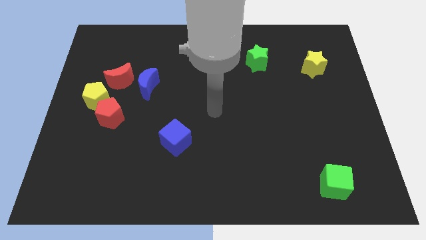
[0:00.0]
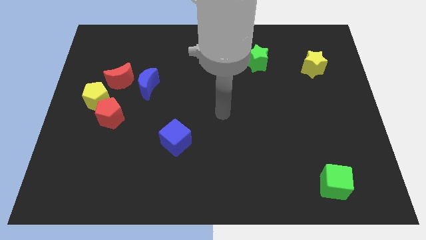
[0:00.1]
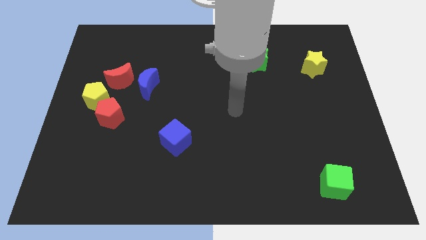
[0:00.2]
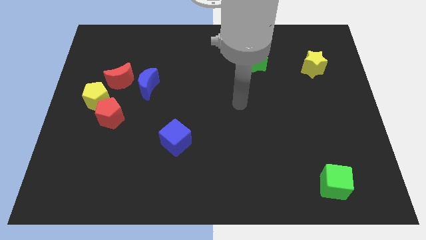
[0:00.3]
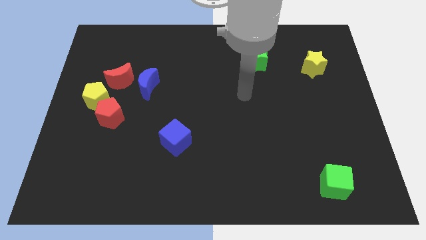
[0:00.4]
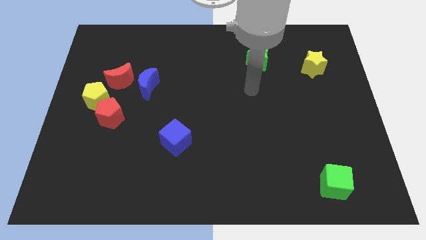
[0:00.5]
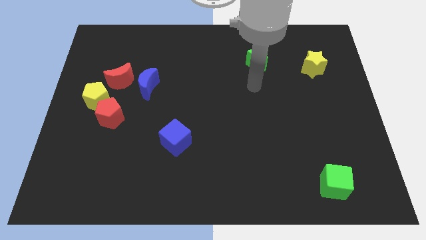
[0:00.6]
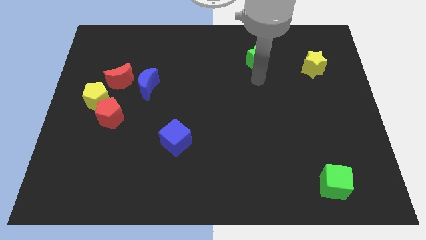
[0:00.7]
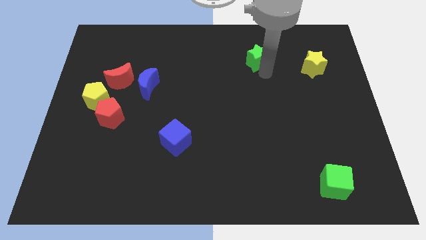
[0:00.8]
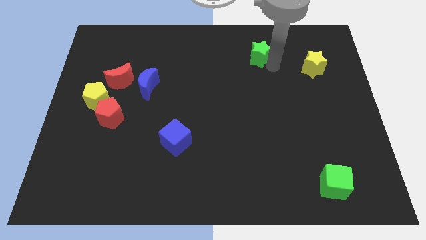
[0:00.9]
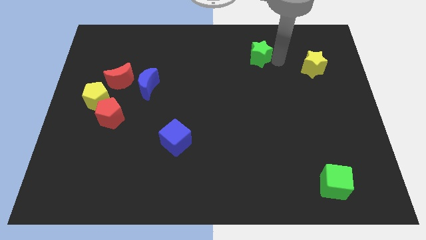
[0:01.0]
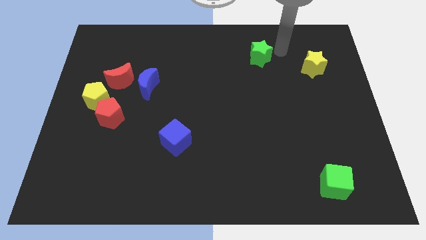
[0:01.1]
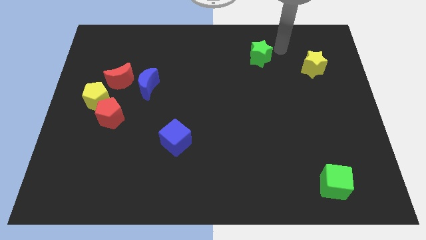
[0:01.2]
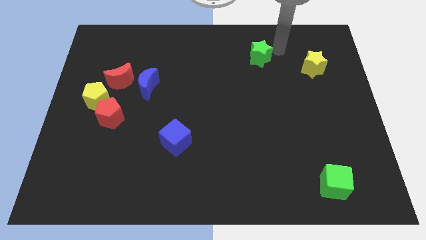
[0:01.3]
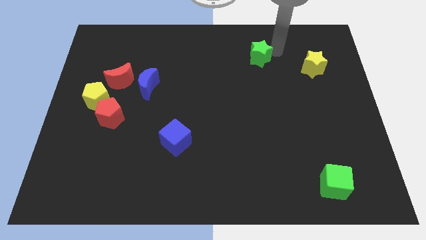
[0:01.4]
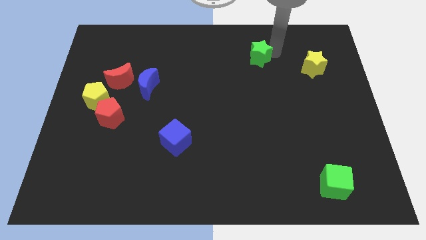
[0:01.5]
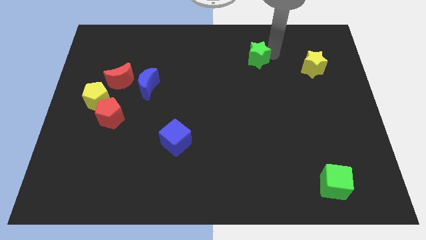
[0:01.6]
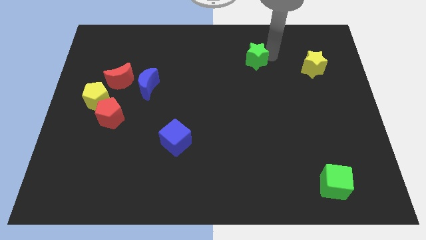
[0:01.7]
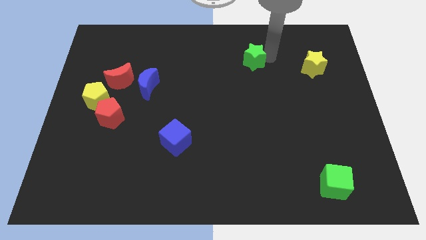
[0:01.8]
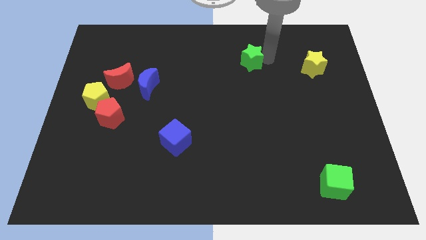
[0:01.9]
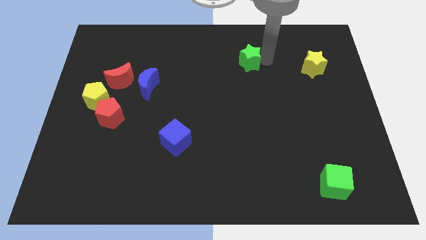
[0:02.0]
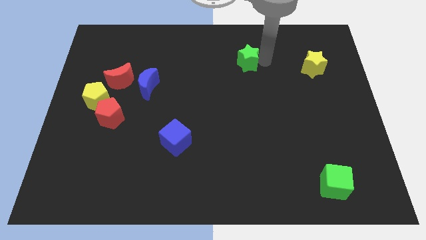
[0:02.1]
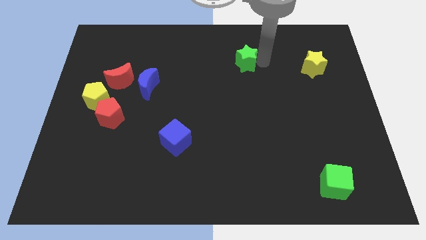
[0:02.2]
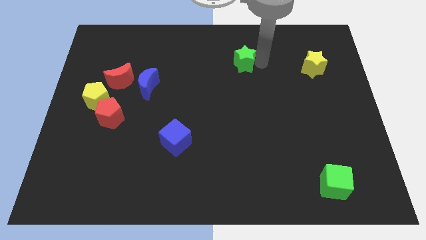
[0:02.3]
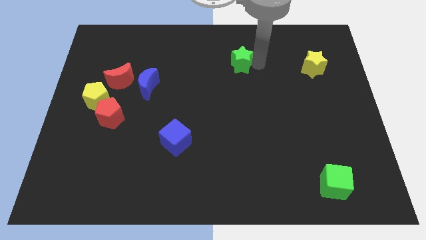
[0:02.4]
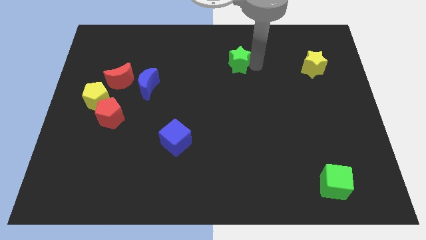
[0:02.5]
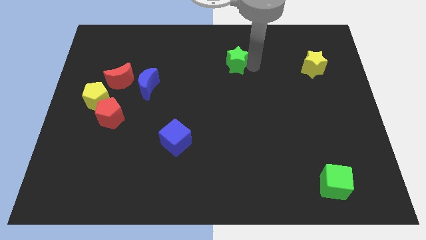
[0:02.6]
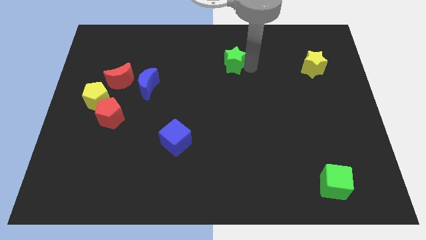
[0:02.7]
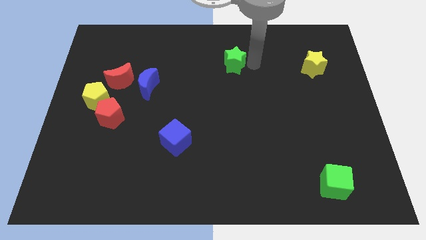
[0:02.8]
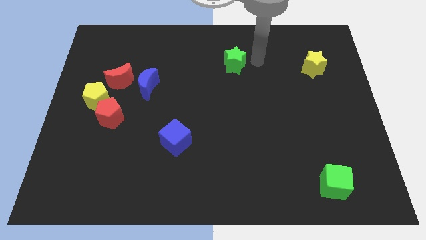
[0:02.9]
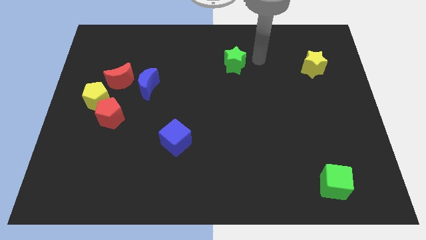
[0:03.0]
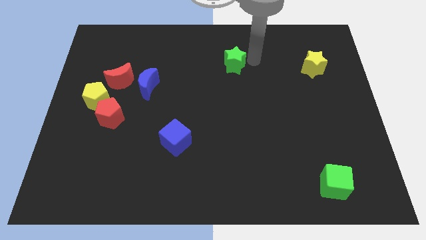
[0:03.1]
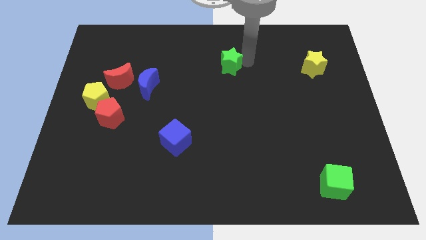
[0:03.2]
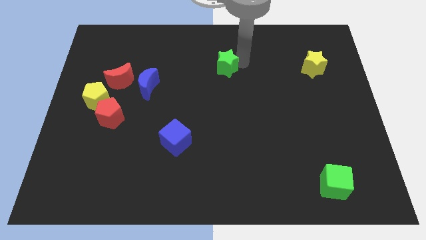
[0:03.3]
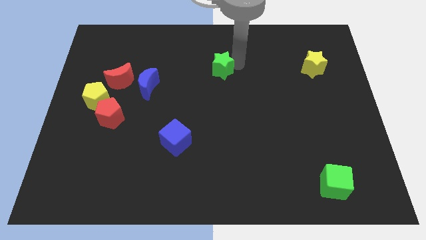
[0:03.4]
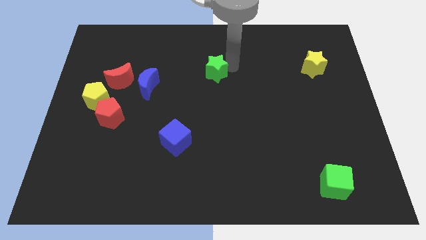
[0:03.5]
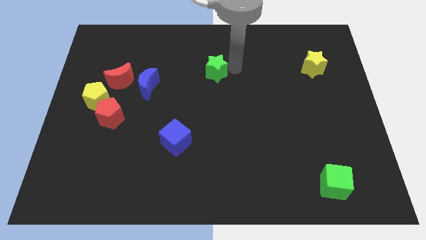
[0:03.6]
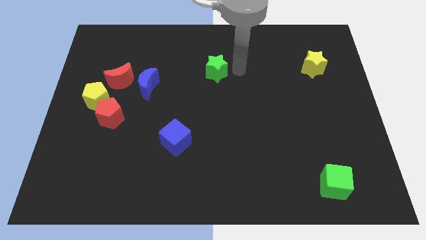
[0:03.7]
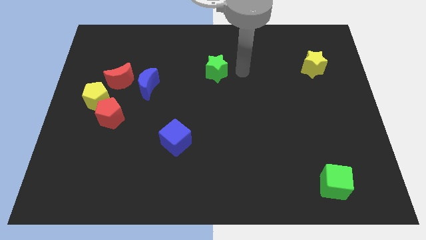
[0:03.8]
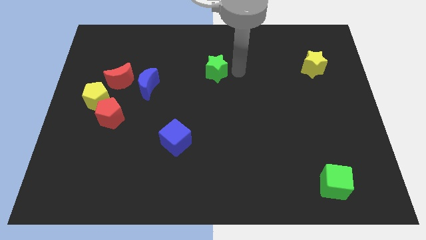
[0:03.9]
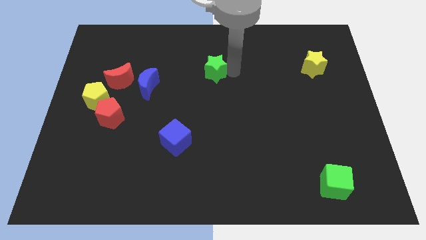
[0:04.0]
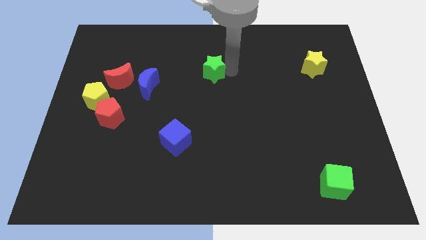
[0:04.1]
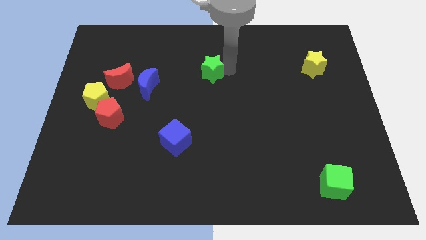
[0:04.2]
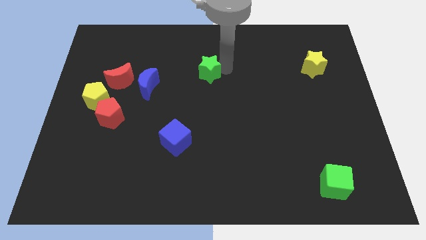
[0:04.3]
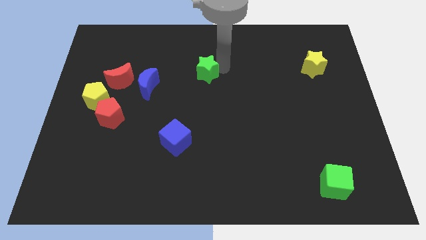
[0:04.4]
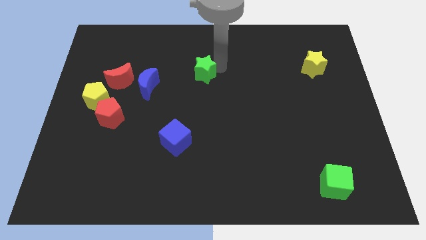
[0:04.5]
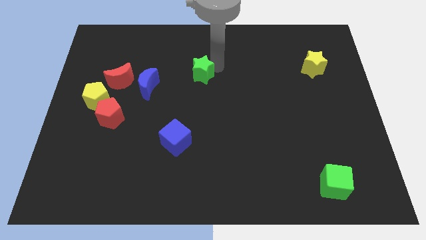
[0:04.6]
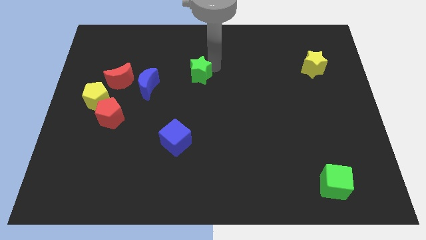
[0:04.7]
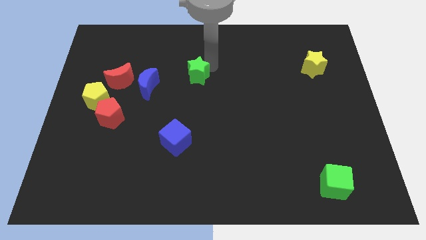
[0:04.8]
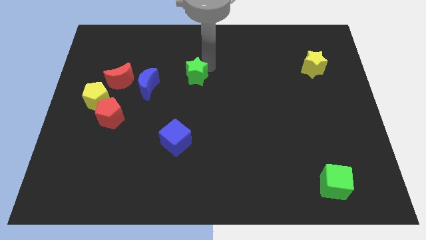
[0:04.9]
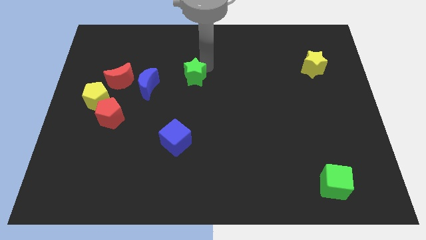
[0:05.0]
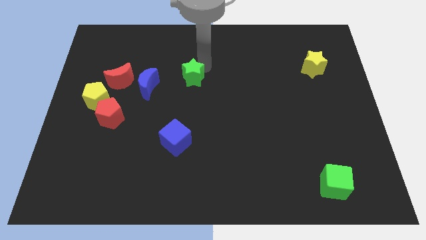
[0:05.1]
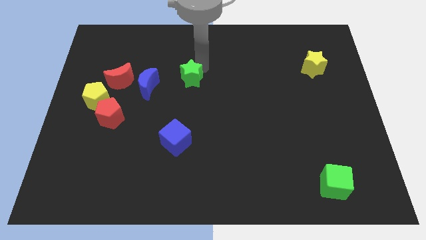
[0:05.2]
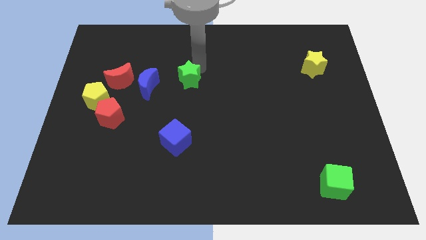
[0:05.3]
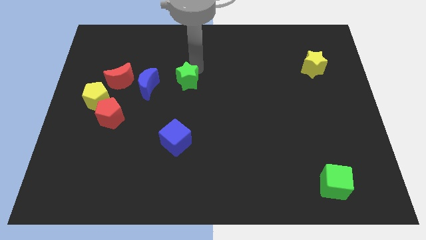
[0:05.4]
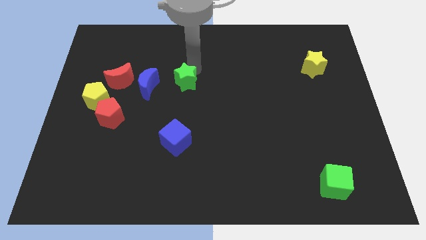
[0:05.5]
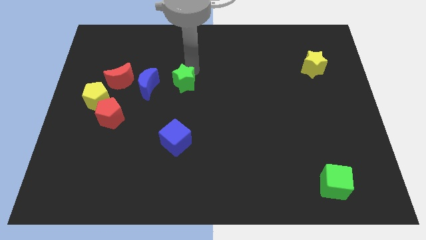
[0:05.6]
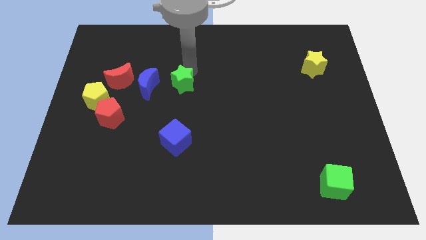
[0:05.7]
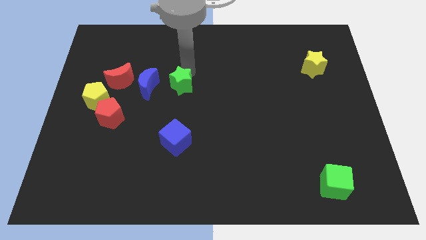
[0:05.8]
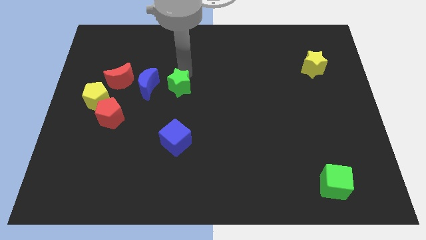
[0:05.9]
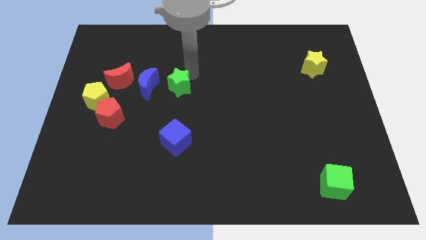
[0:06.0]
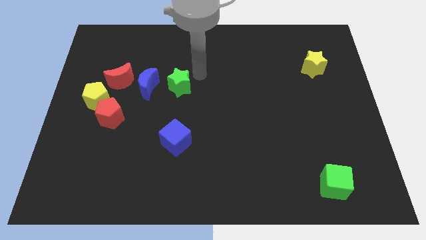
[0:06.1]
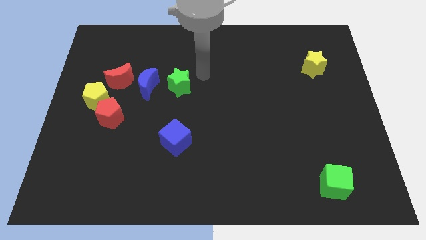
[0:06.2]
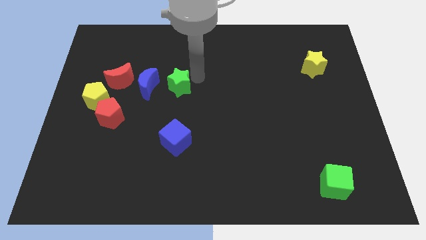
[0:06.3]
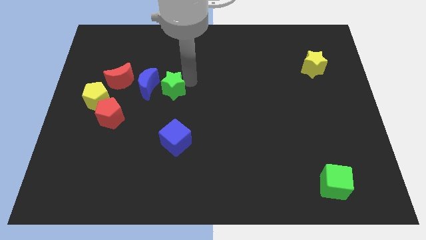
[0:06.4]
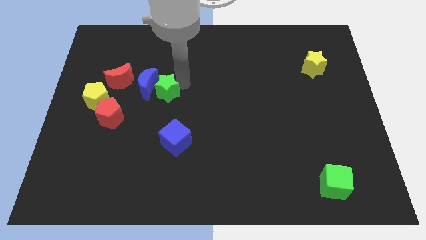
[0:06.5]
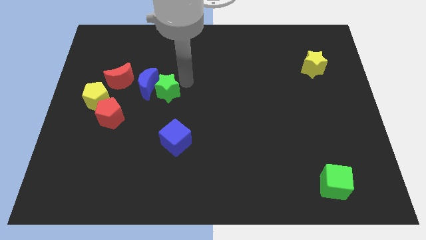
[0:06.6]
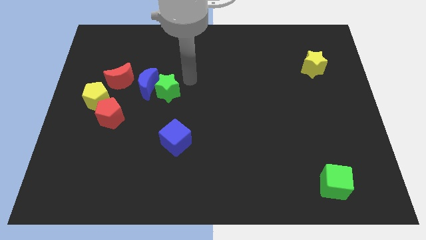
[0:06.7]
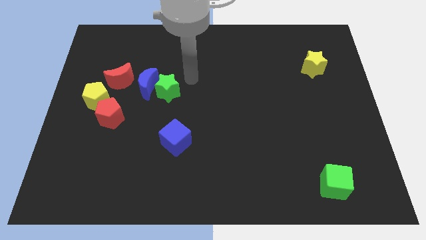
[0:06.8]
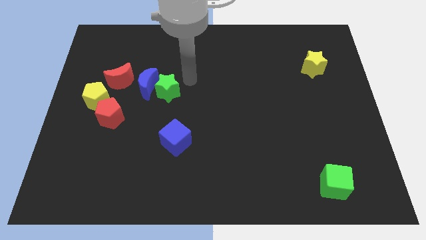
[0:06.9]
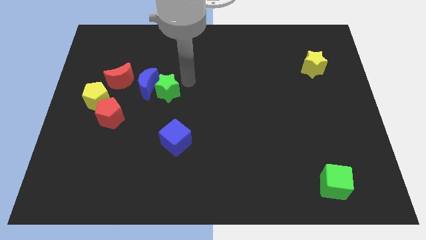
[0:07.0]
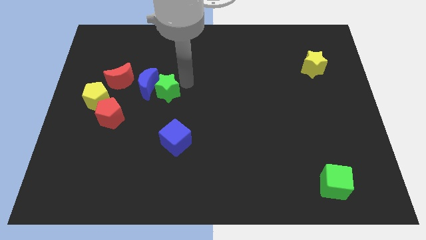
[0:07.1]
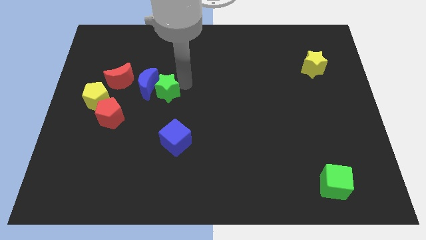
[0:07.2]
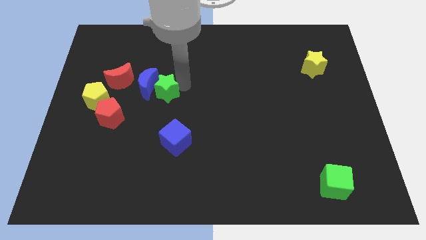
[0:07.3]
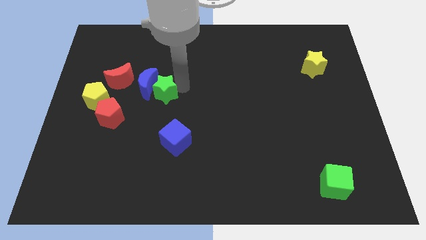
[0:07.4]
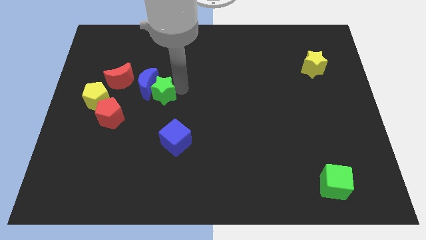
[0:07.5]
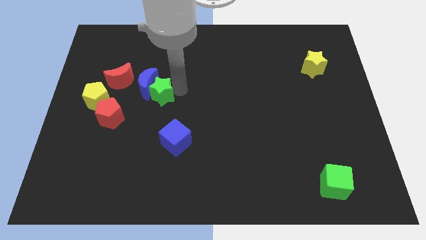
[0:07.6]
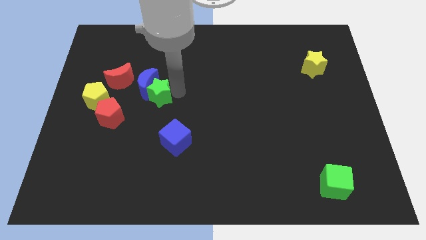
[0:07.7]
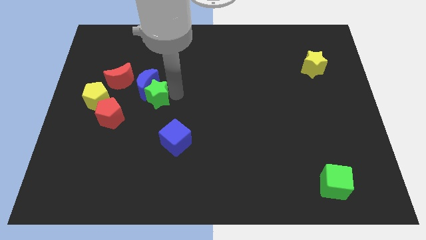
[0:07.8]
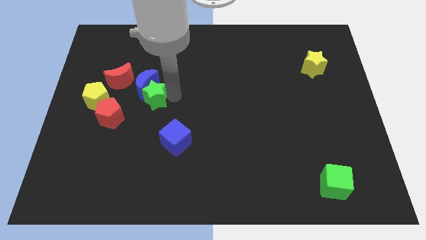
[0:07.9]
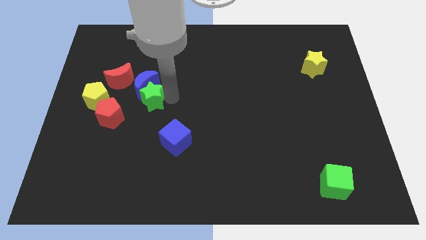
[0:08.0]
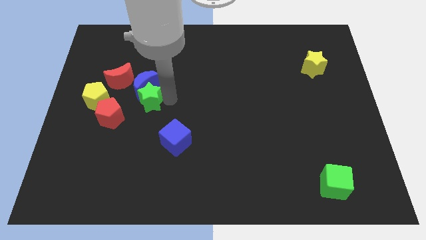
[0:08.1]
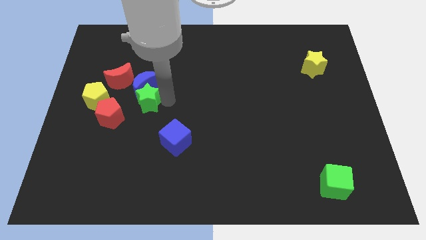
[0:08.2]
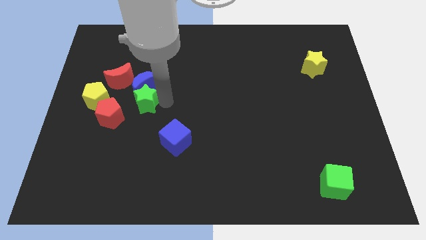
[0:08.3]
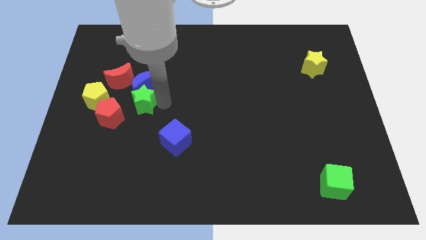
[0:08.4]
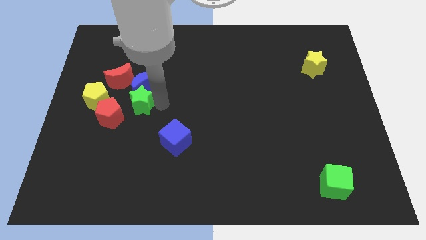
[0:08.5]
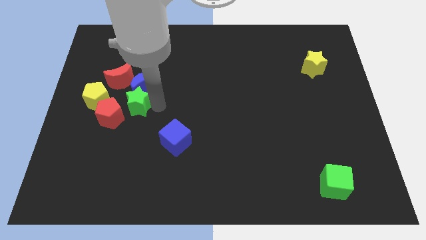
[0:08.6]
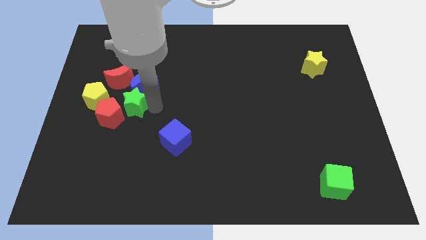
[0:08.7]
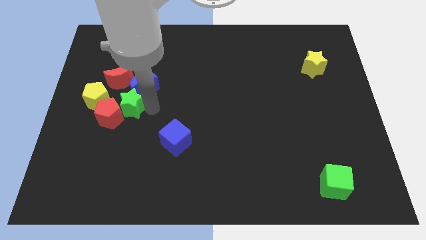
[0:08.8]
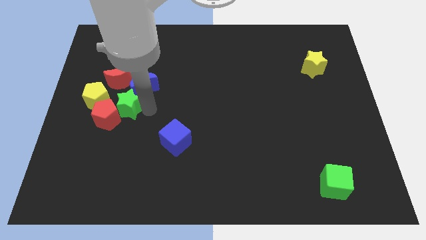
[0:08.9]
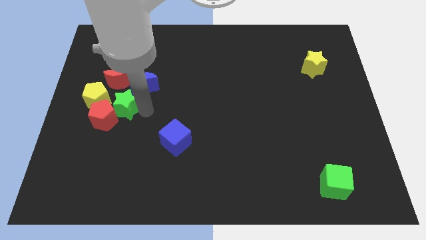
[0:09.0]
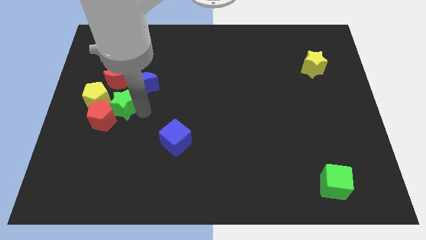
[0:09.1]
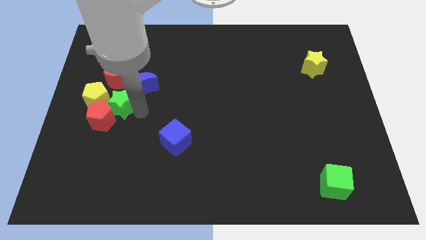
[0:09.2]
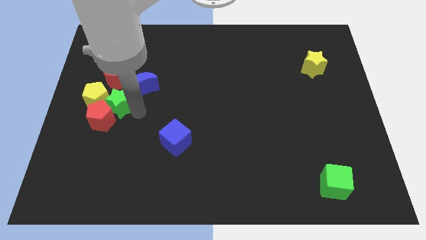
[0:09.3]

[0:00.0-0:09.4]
slide the green star towards the yellow pentagon
